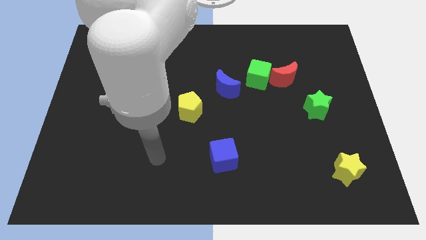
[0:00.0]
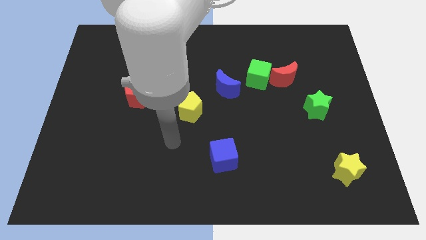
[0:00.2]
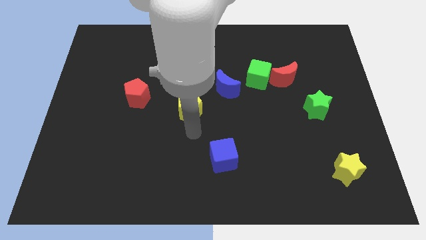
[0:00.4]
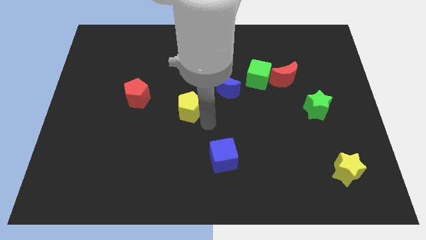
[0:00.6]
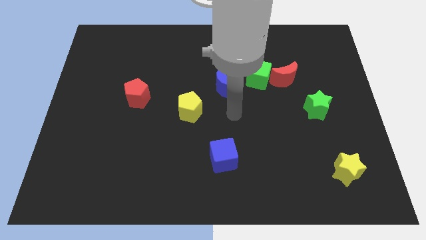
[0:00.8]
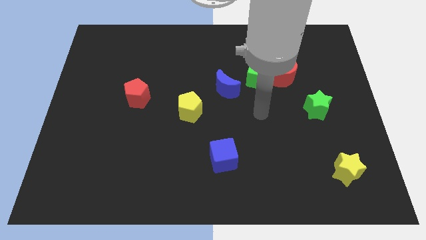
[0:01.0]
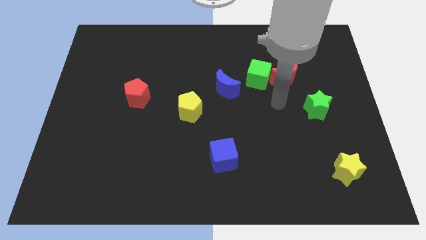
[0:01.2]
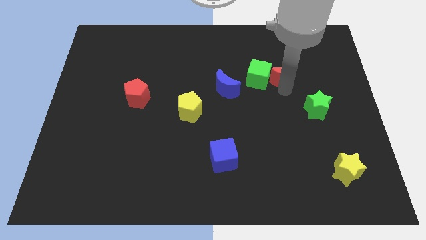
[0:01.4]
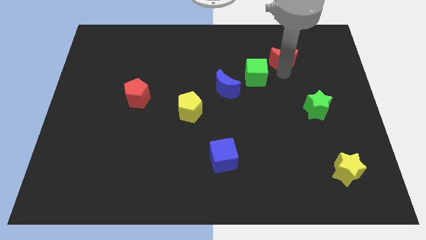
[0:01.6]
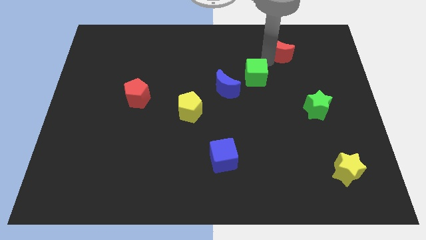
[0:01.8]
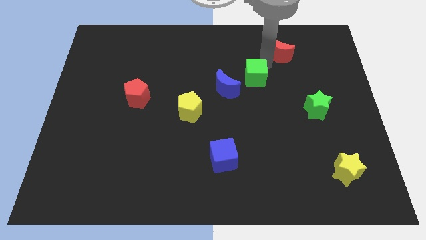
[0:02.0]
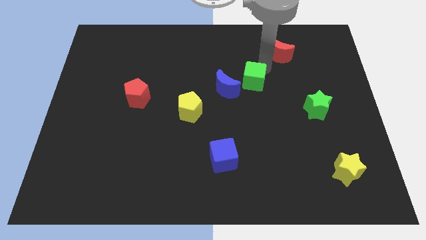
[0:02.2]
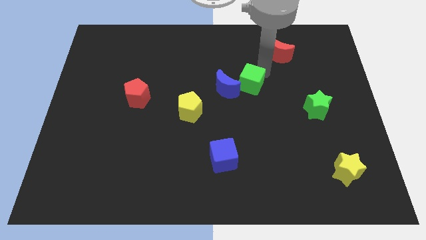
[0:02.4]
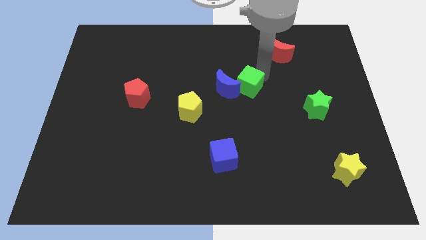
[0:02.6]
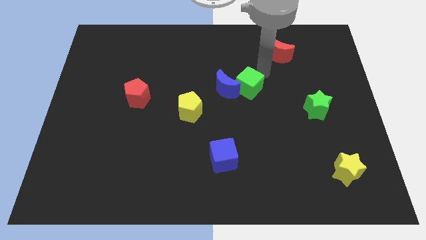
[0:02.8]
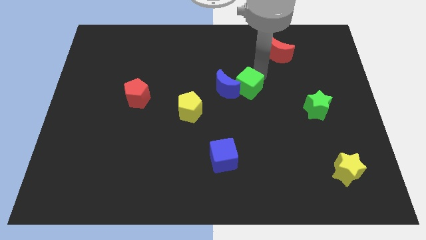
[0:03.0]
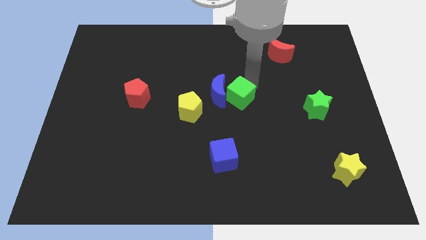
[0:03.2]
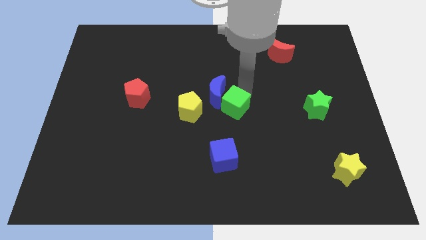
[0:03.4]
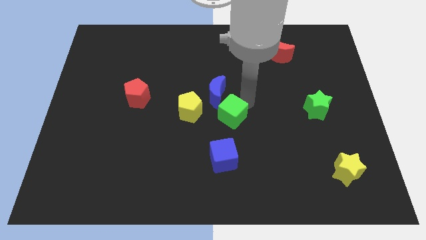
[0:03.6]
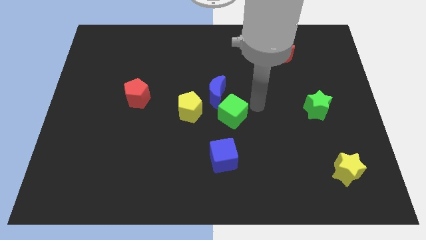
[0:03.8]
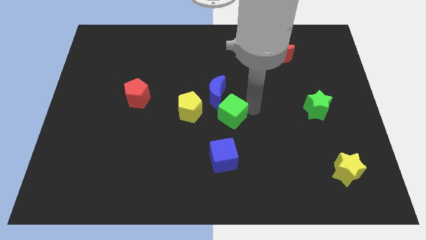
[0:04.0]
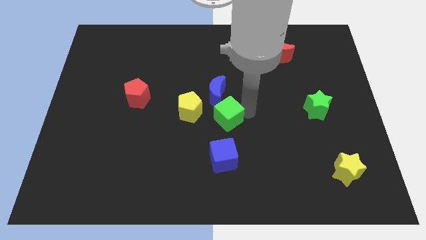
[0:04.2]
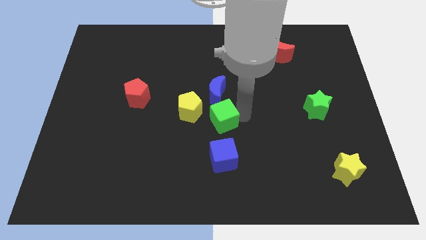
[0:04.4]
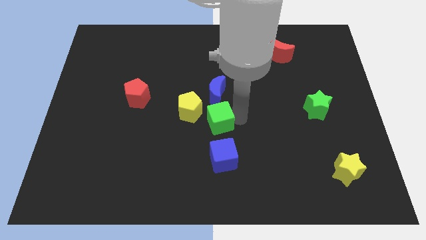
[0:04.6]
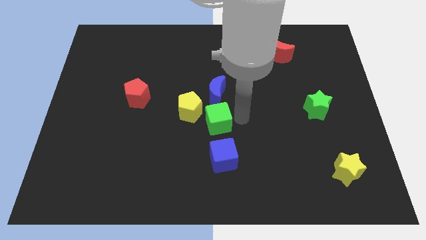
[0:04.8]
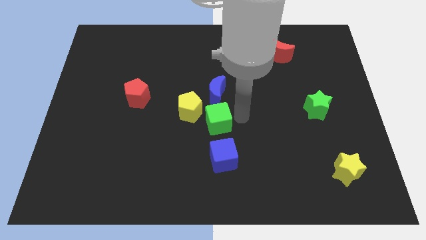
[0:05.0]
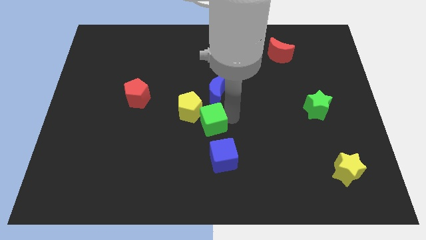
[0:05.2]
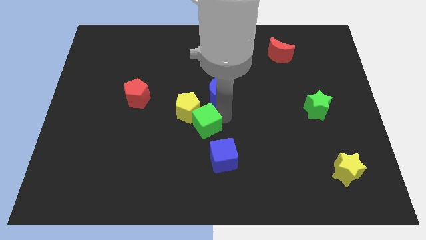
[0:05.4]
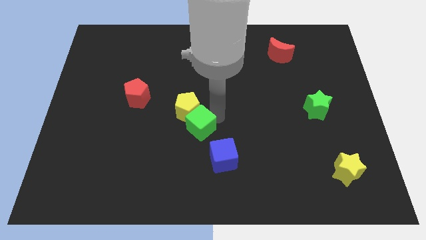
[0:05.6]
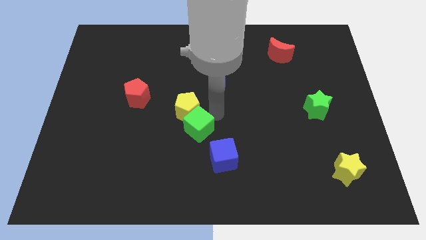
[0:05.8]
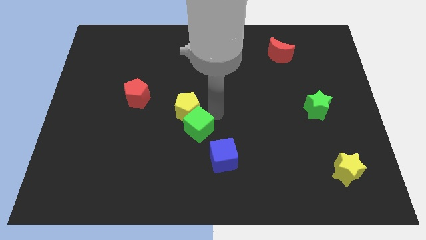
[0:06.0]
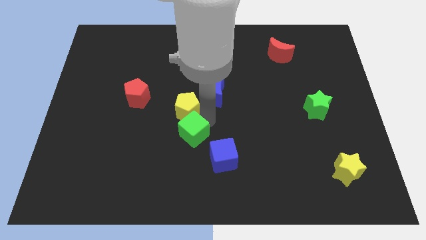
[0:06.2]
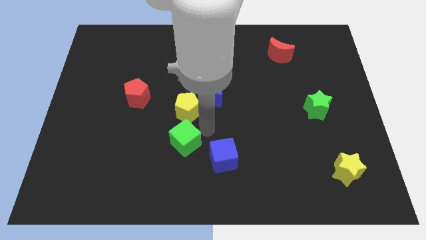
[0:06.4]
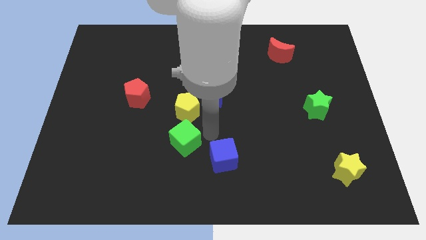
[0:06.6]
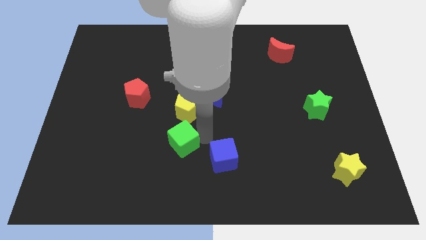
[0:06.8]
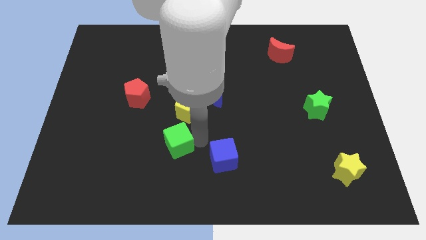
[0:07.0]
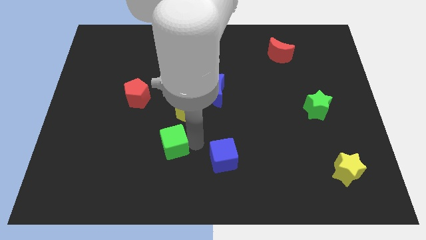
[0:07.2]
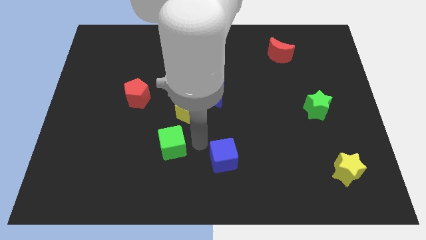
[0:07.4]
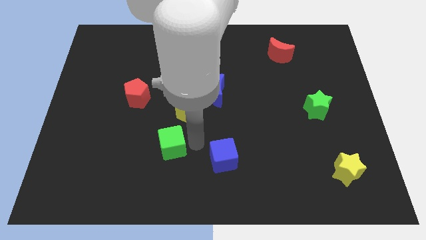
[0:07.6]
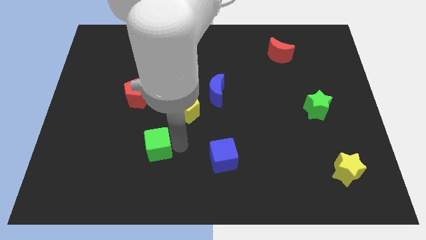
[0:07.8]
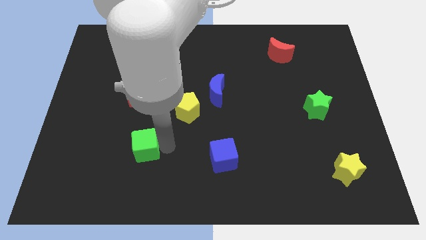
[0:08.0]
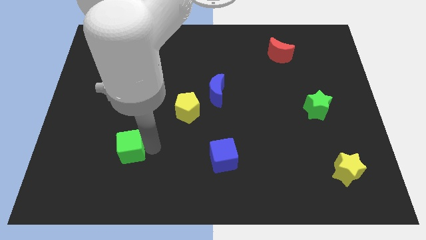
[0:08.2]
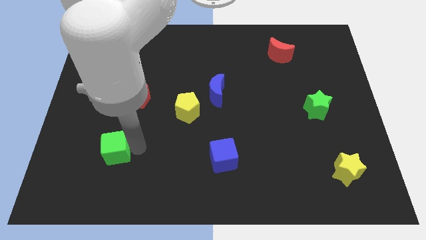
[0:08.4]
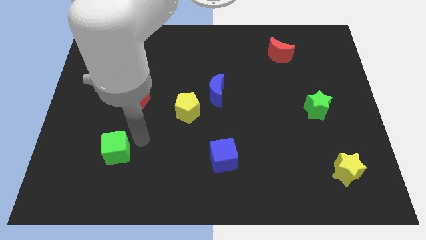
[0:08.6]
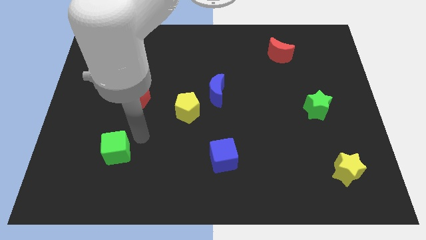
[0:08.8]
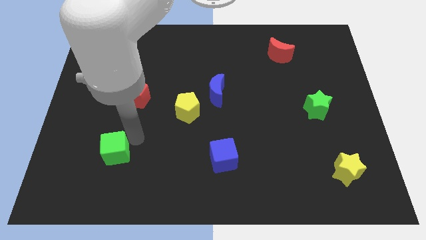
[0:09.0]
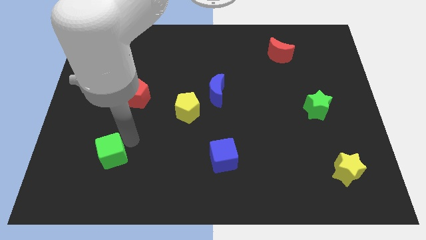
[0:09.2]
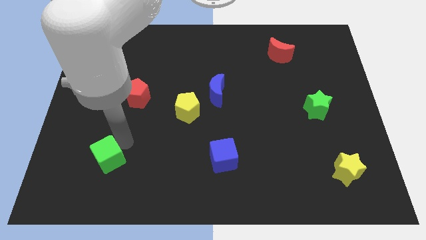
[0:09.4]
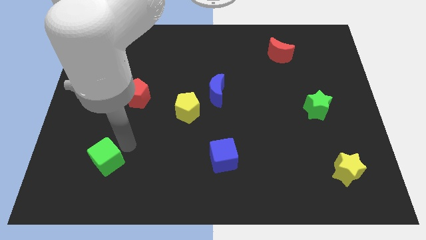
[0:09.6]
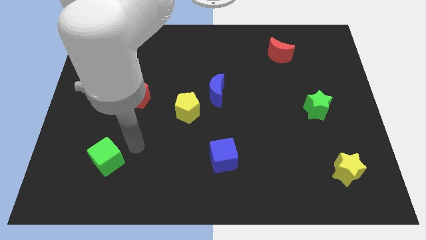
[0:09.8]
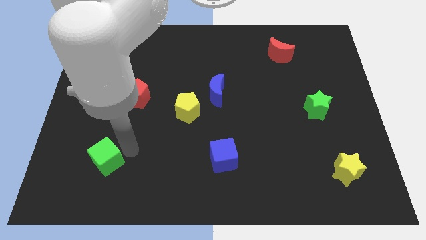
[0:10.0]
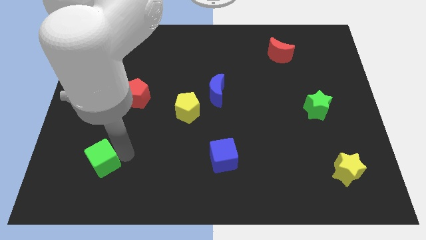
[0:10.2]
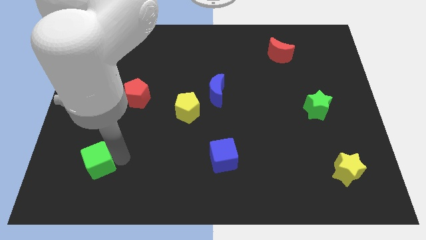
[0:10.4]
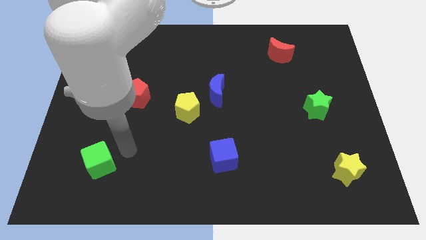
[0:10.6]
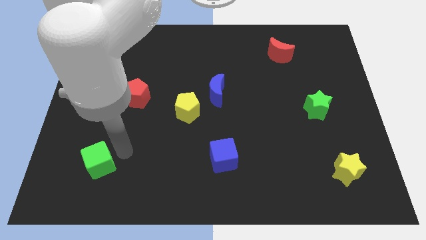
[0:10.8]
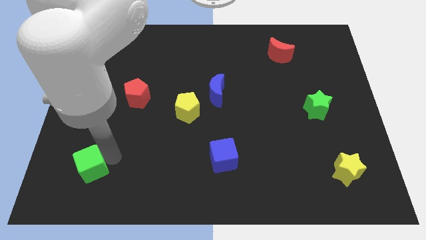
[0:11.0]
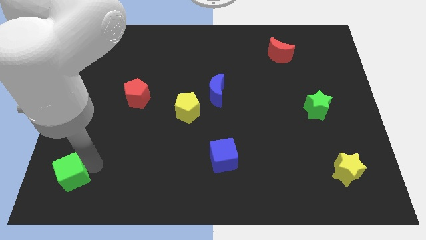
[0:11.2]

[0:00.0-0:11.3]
move the green cube to the bottom left of the board

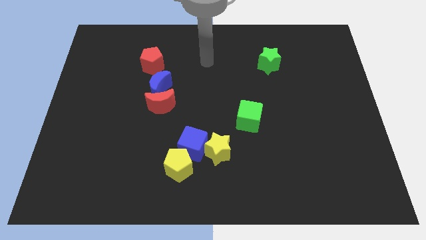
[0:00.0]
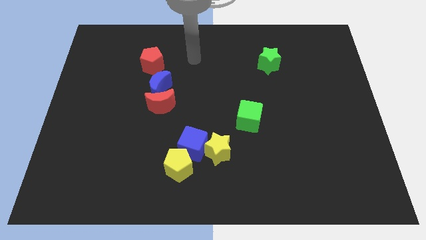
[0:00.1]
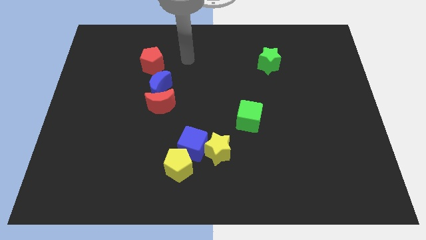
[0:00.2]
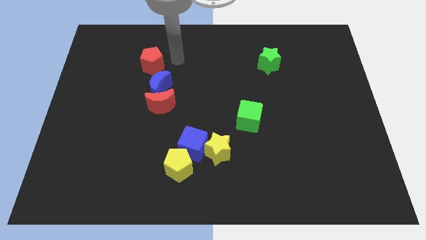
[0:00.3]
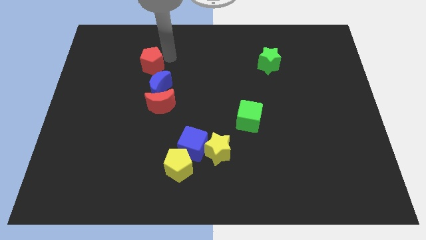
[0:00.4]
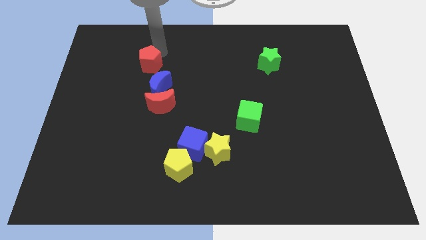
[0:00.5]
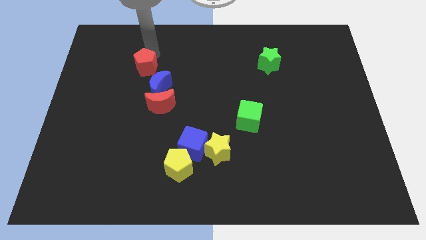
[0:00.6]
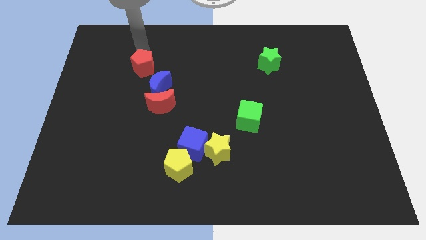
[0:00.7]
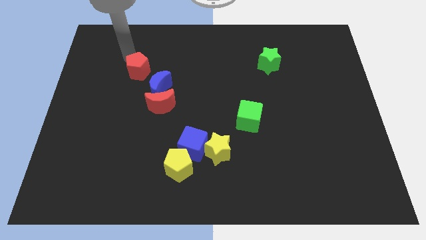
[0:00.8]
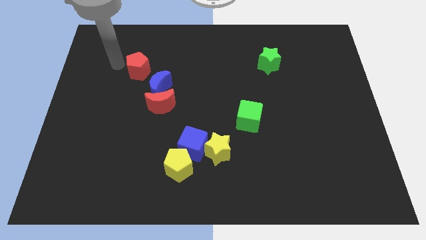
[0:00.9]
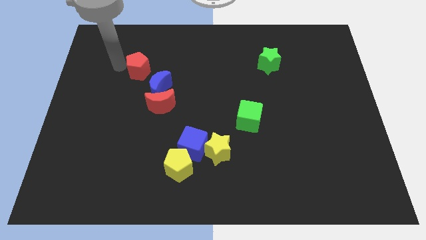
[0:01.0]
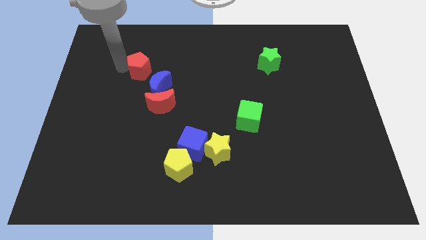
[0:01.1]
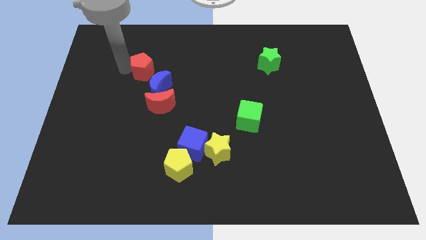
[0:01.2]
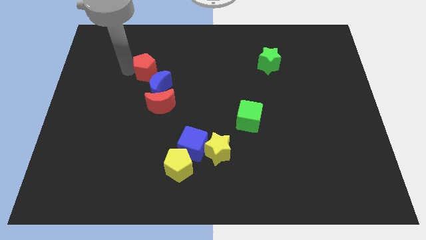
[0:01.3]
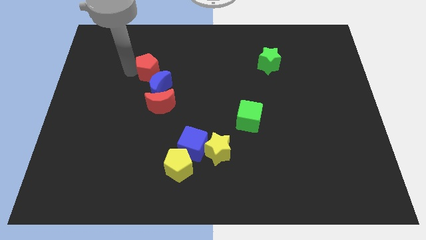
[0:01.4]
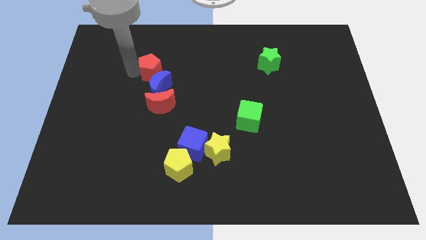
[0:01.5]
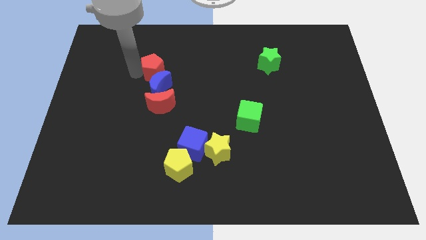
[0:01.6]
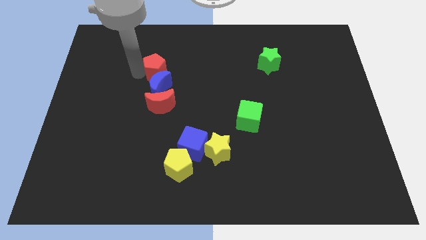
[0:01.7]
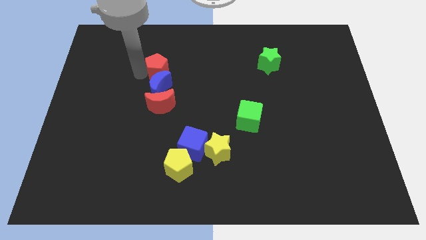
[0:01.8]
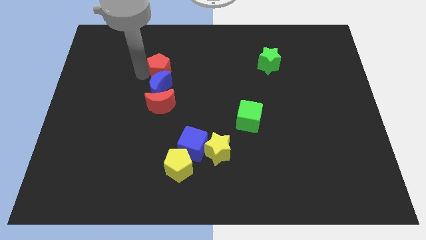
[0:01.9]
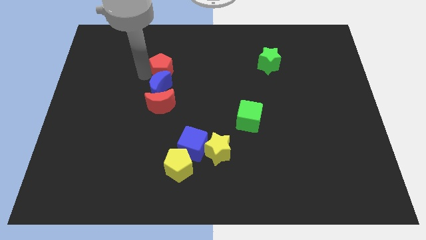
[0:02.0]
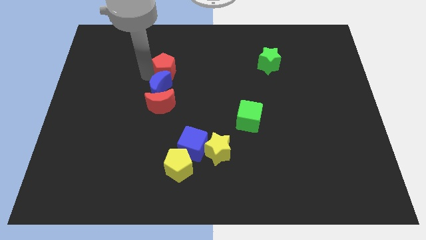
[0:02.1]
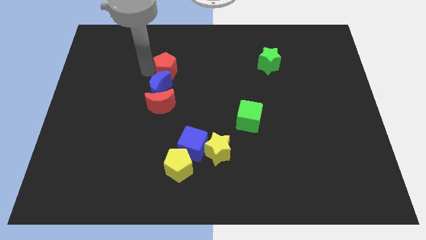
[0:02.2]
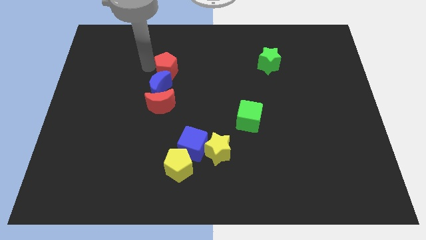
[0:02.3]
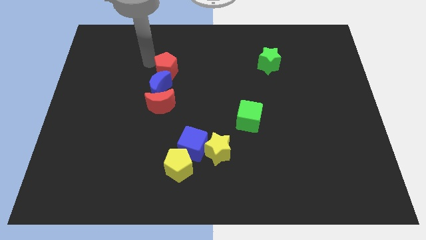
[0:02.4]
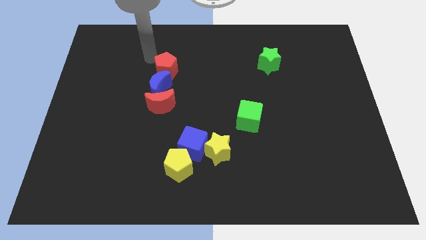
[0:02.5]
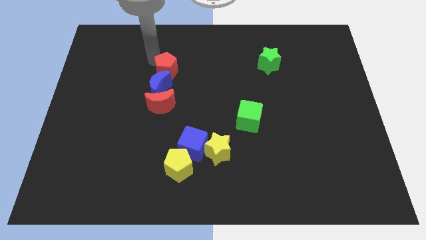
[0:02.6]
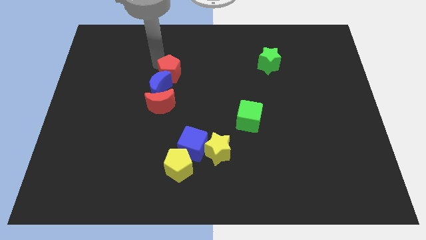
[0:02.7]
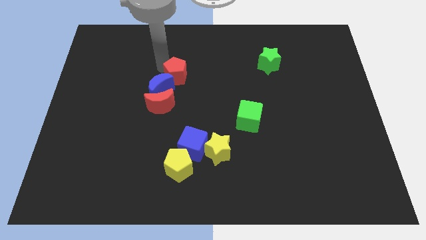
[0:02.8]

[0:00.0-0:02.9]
move the red pentagon to the middle
